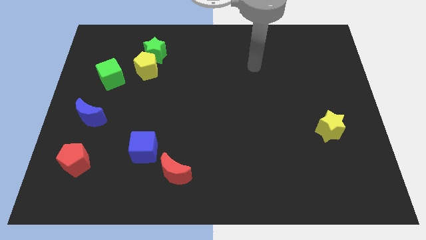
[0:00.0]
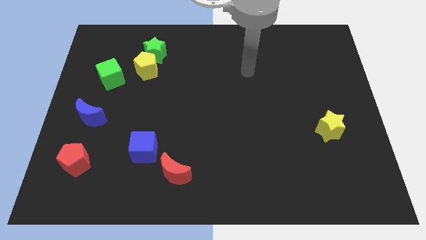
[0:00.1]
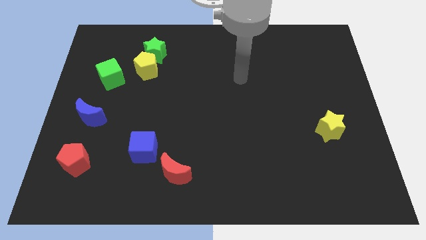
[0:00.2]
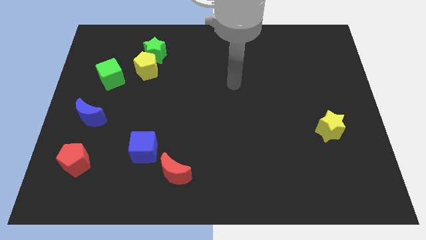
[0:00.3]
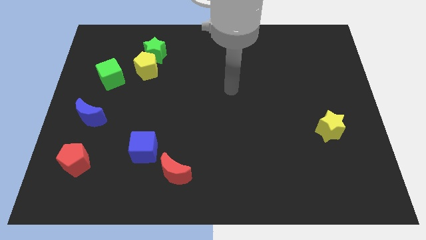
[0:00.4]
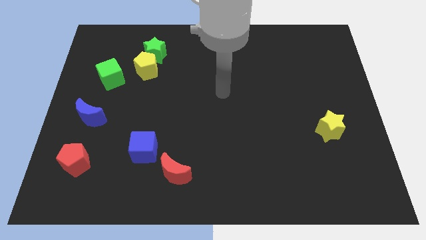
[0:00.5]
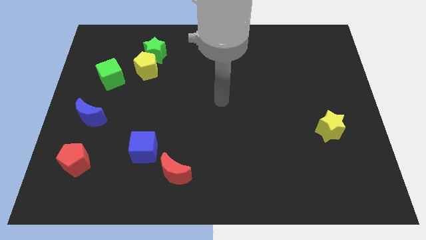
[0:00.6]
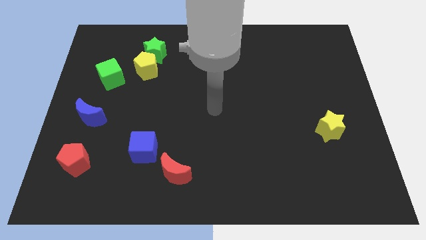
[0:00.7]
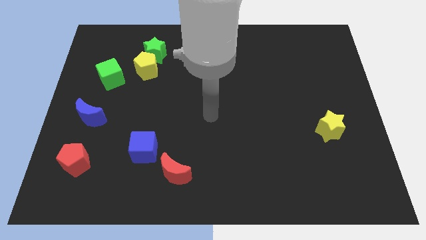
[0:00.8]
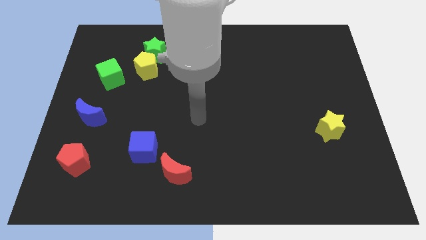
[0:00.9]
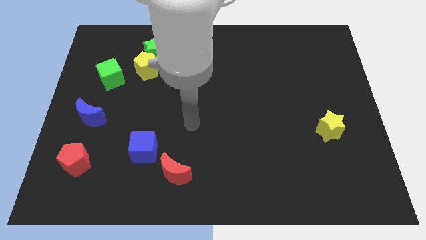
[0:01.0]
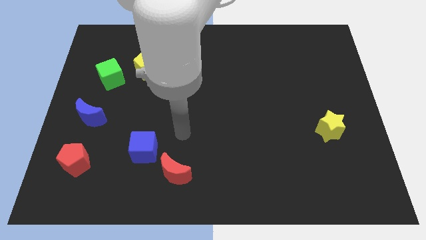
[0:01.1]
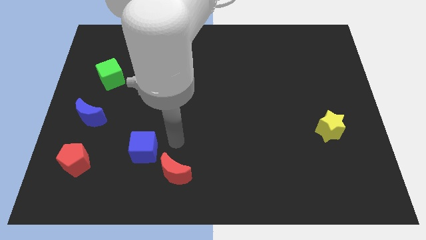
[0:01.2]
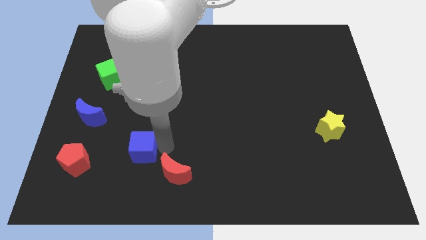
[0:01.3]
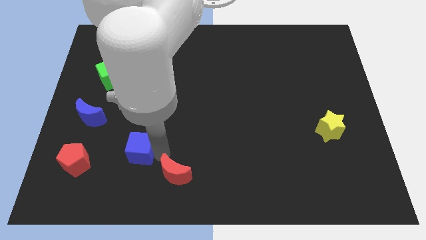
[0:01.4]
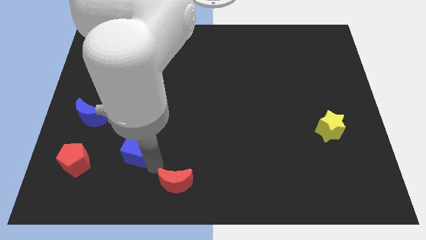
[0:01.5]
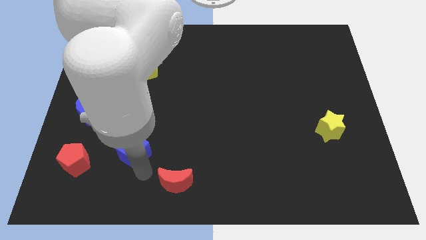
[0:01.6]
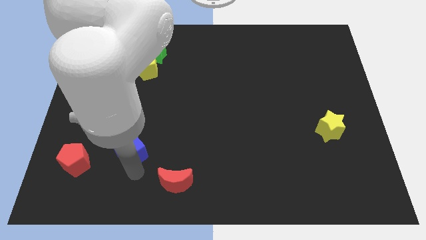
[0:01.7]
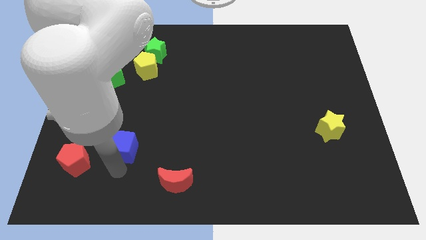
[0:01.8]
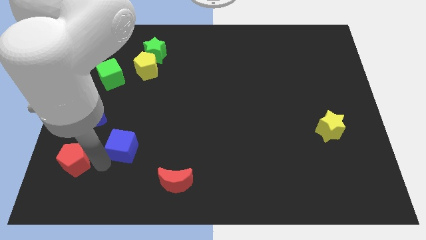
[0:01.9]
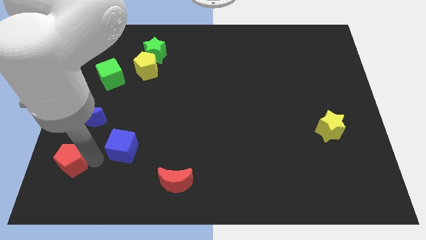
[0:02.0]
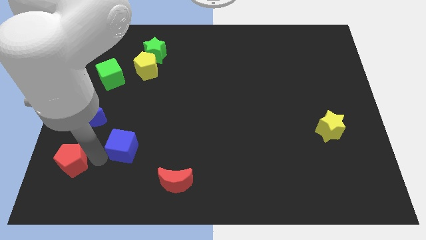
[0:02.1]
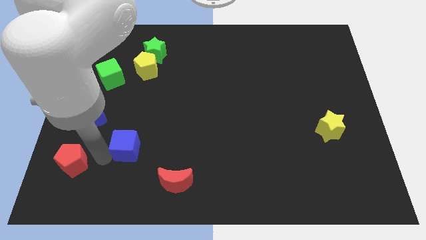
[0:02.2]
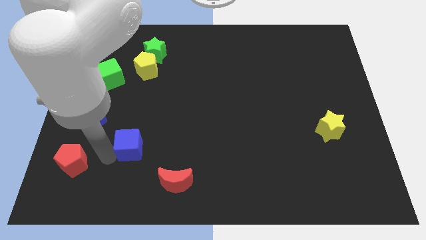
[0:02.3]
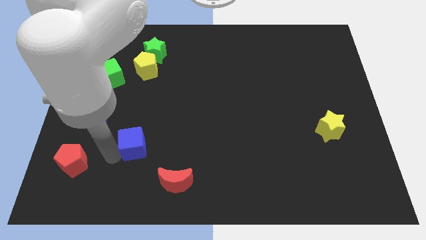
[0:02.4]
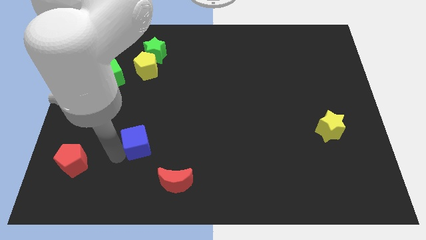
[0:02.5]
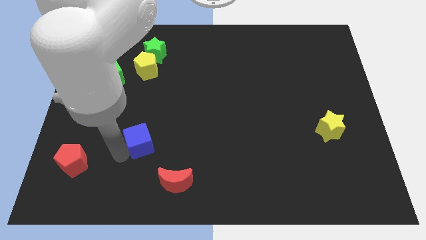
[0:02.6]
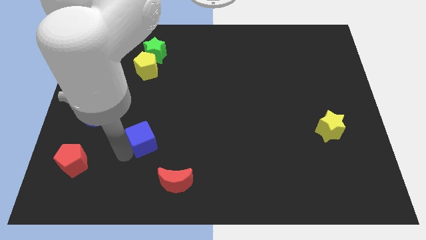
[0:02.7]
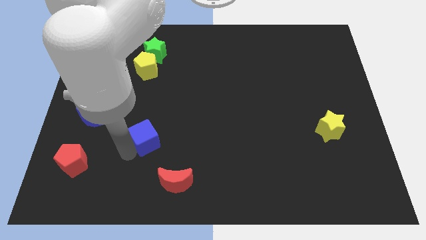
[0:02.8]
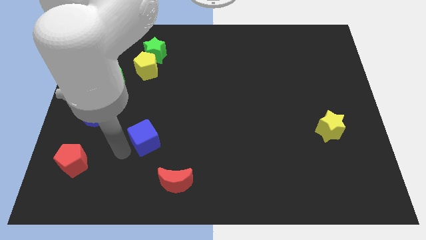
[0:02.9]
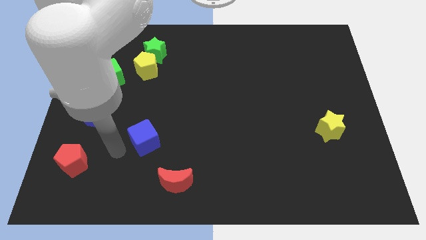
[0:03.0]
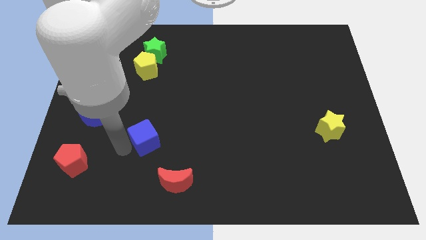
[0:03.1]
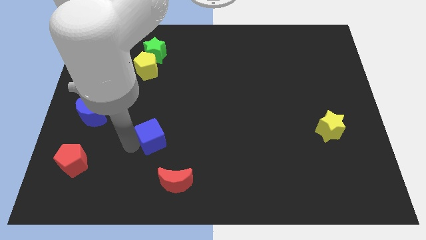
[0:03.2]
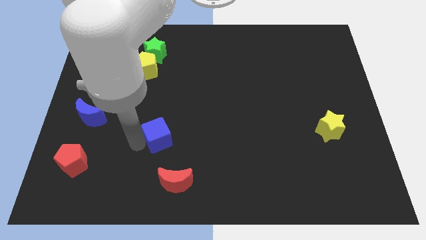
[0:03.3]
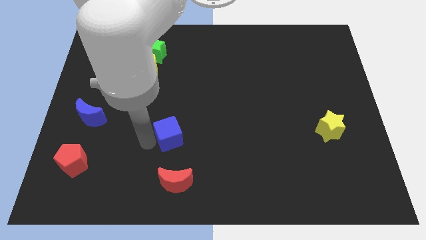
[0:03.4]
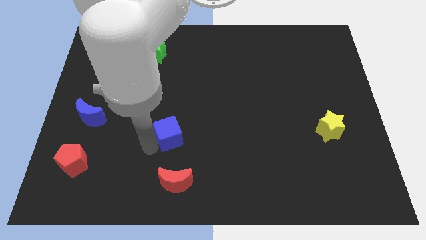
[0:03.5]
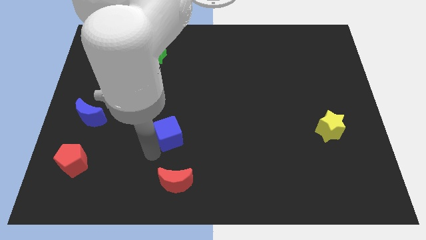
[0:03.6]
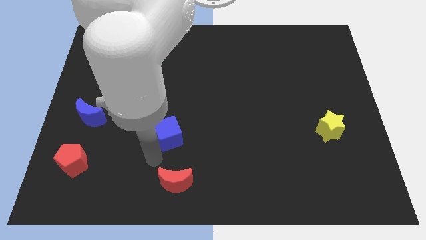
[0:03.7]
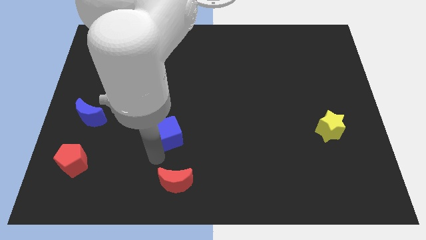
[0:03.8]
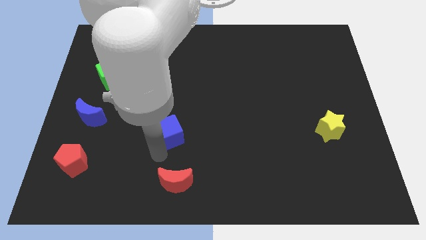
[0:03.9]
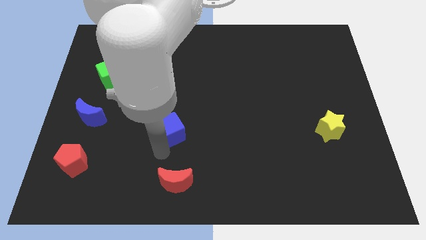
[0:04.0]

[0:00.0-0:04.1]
slide the blue cube a little bit diagonally up and right

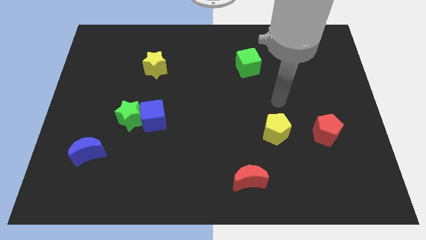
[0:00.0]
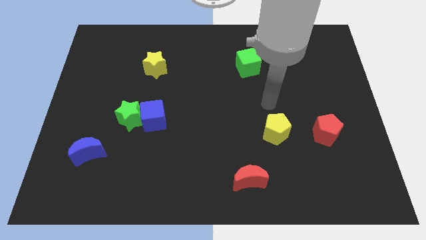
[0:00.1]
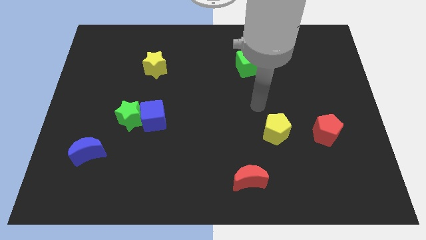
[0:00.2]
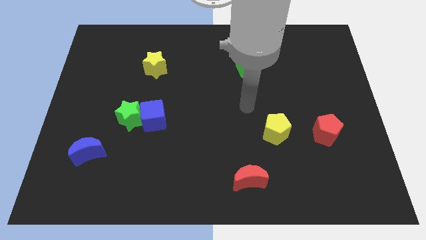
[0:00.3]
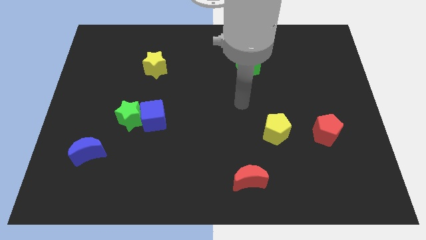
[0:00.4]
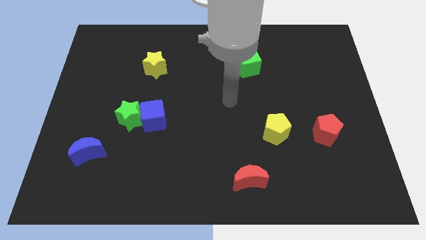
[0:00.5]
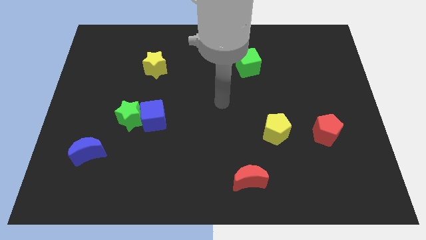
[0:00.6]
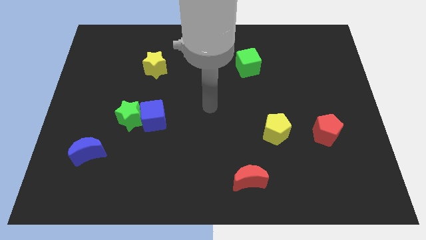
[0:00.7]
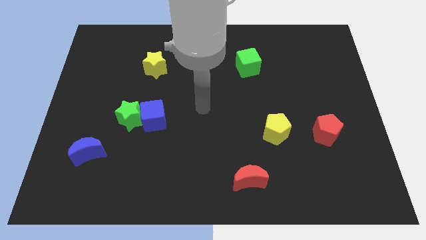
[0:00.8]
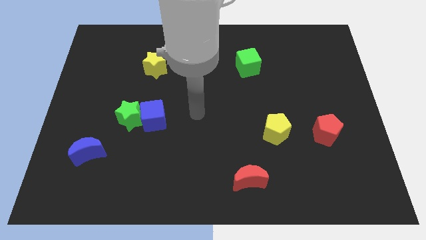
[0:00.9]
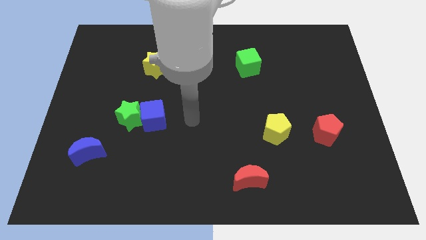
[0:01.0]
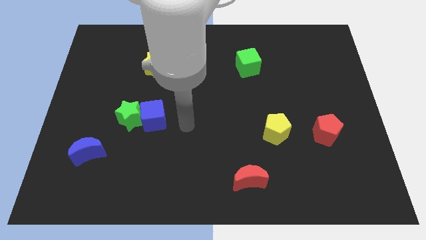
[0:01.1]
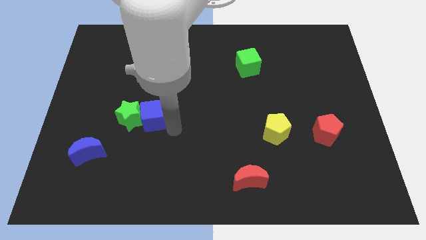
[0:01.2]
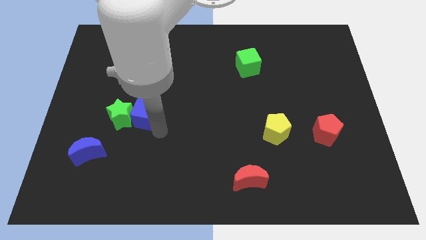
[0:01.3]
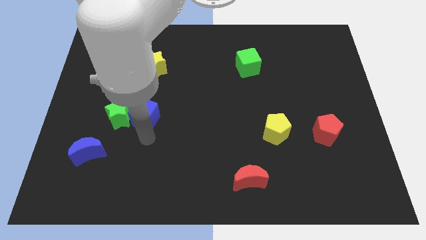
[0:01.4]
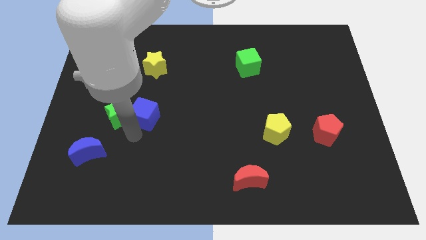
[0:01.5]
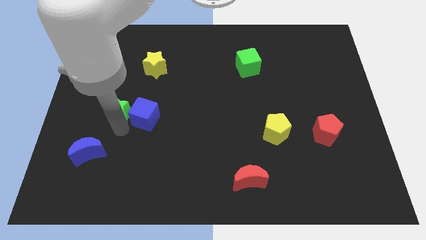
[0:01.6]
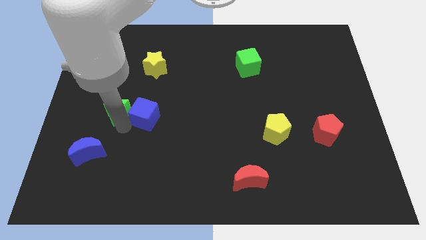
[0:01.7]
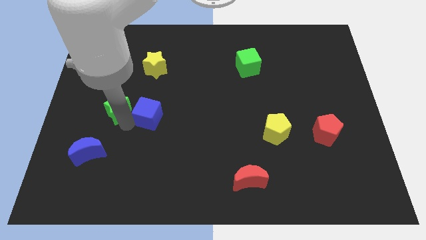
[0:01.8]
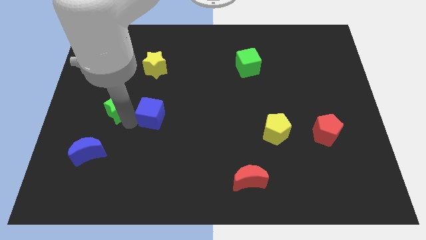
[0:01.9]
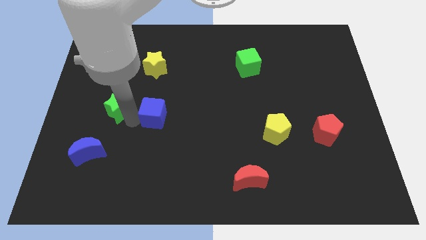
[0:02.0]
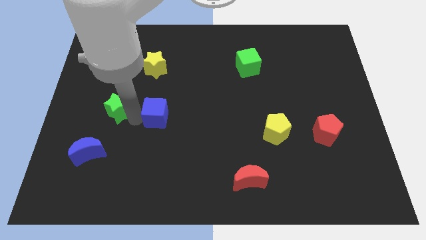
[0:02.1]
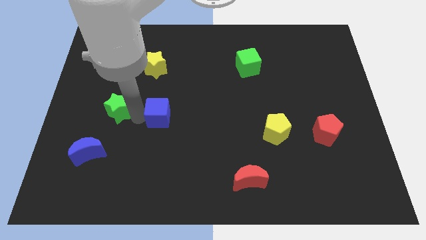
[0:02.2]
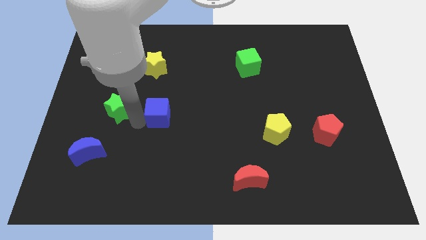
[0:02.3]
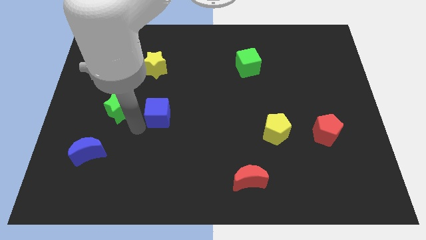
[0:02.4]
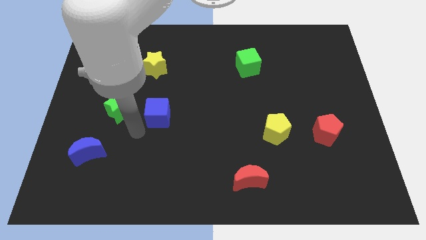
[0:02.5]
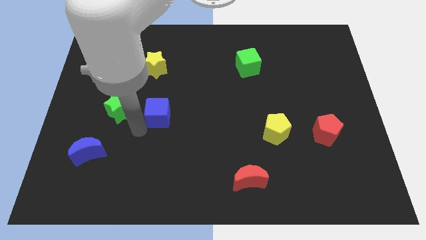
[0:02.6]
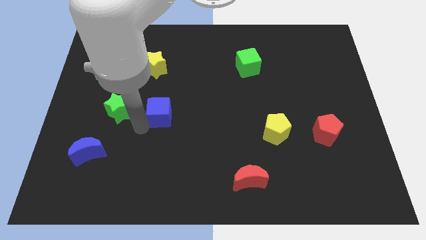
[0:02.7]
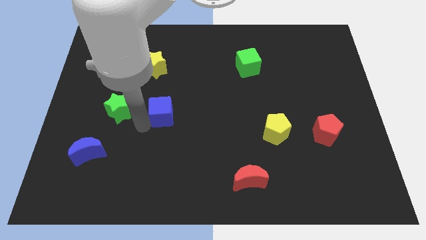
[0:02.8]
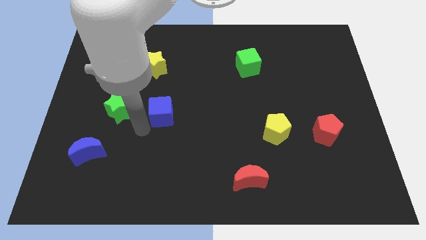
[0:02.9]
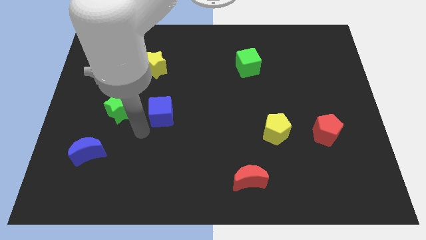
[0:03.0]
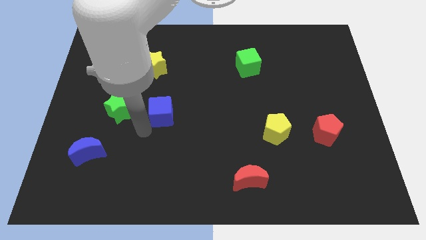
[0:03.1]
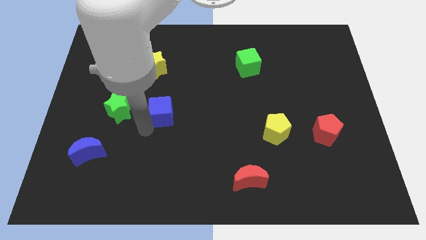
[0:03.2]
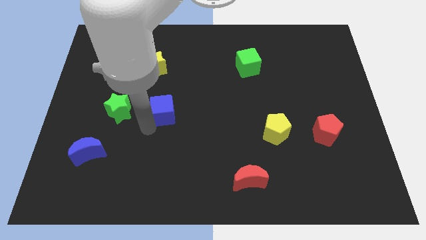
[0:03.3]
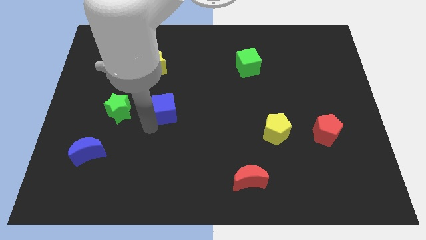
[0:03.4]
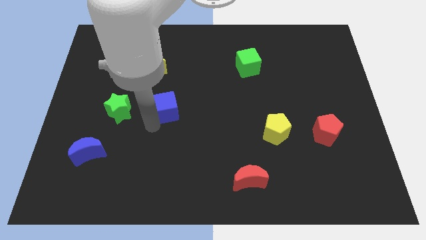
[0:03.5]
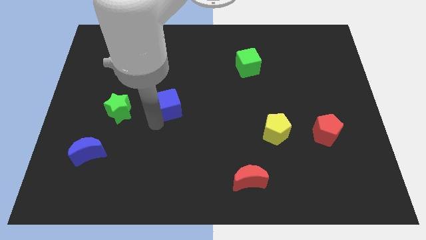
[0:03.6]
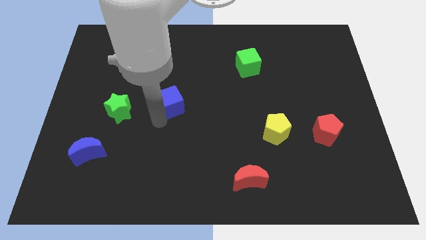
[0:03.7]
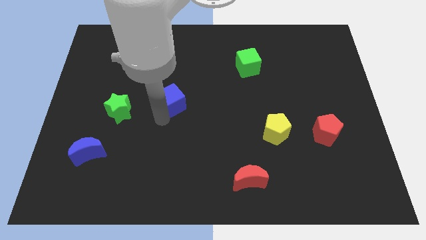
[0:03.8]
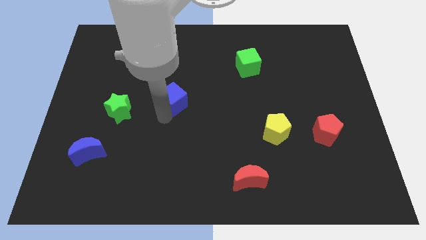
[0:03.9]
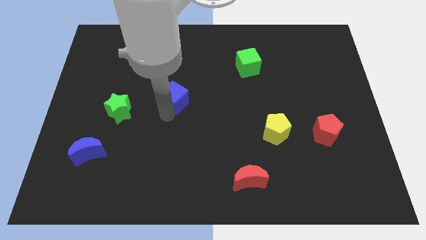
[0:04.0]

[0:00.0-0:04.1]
slightly push the blue cube diagonally up and right

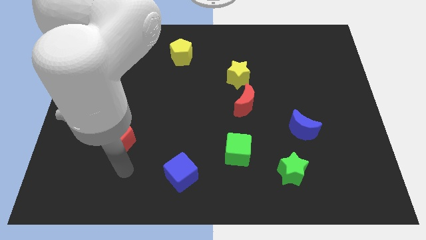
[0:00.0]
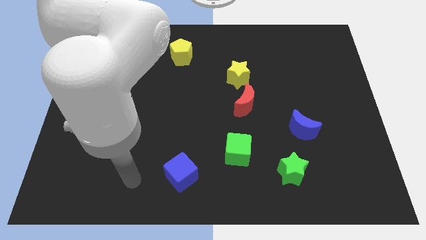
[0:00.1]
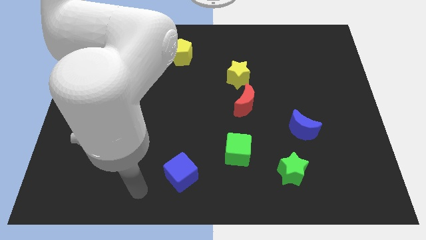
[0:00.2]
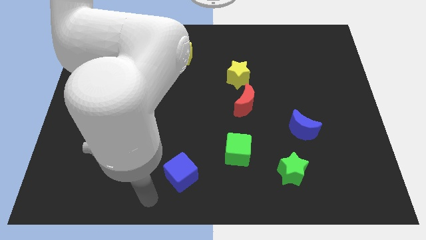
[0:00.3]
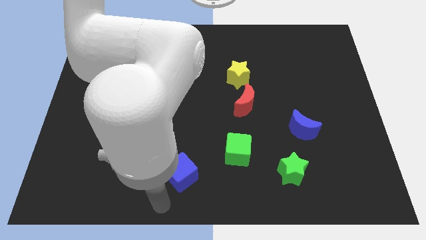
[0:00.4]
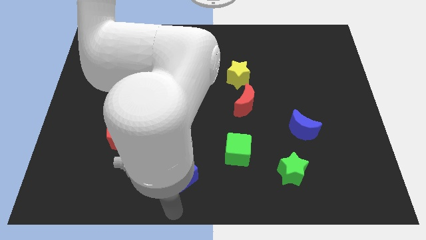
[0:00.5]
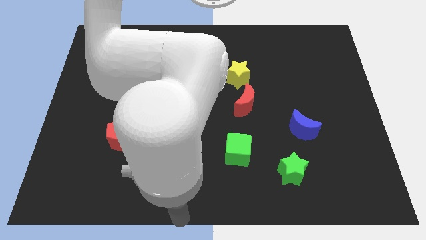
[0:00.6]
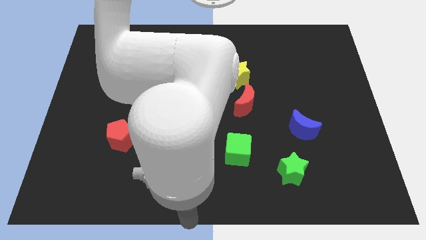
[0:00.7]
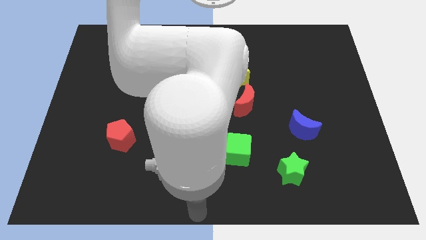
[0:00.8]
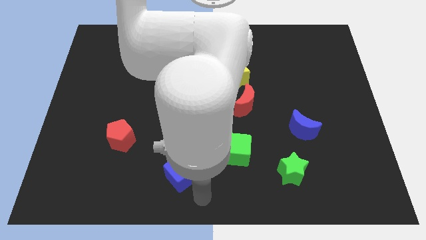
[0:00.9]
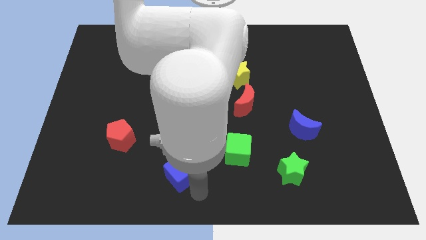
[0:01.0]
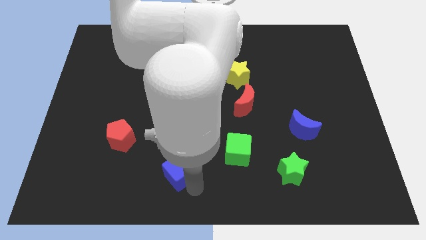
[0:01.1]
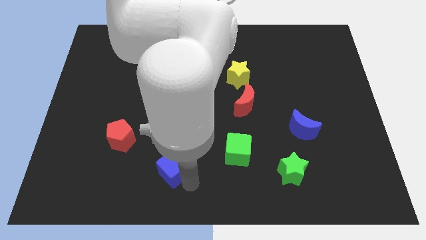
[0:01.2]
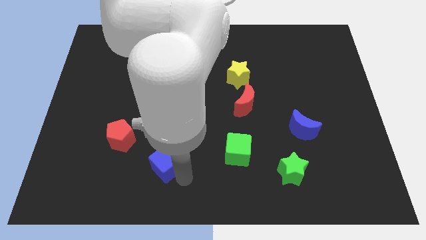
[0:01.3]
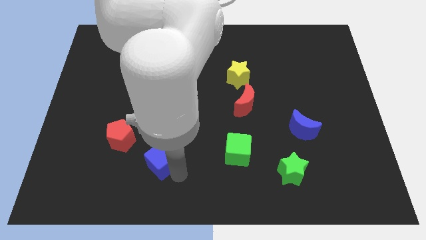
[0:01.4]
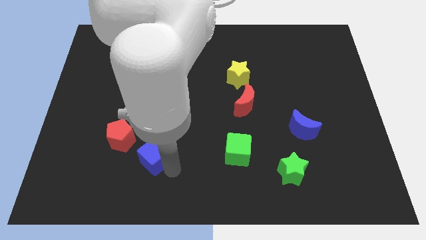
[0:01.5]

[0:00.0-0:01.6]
slightly slide the blue cube up and to the left
